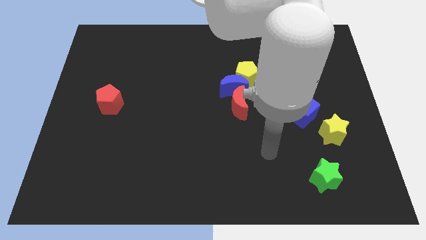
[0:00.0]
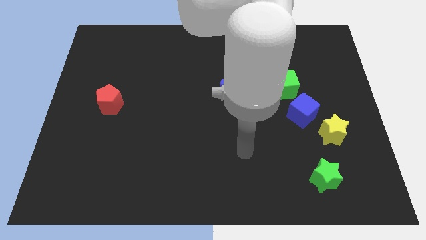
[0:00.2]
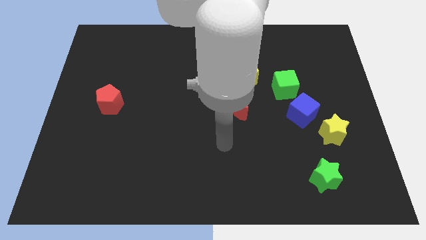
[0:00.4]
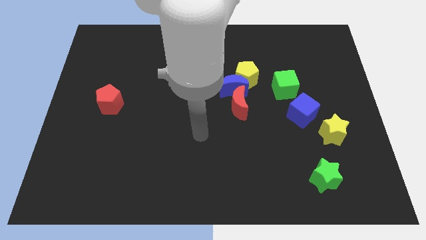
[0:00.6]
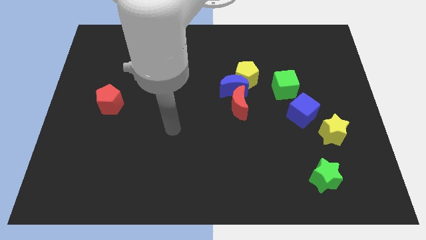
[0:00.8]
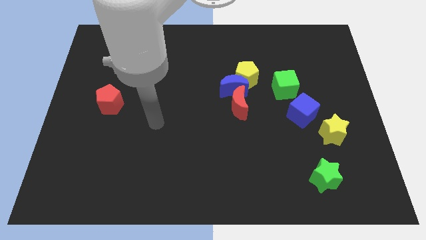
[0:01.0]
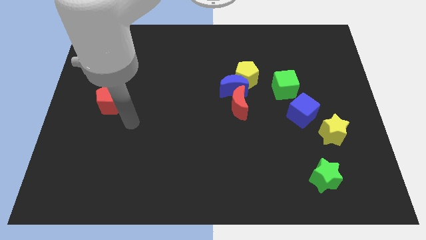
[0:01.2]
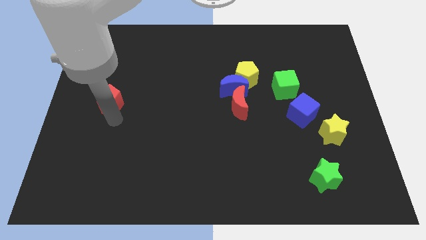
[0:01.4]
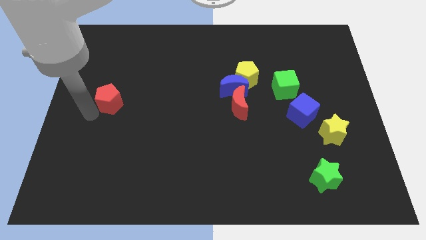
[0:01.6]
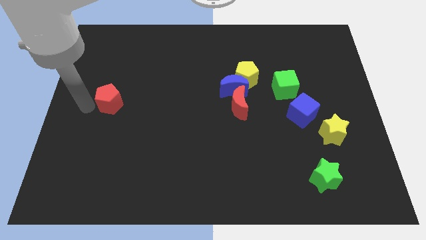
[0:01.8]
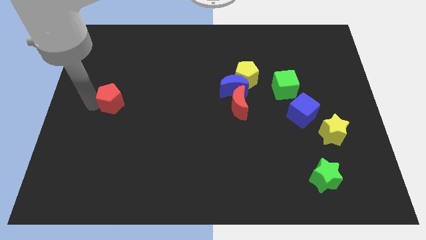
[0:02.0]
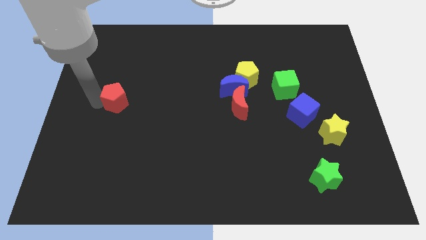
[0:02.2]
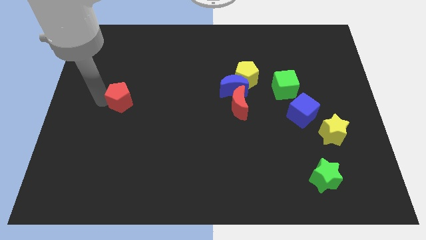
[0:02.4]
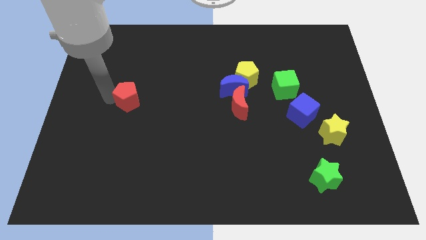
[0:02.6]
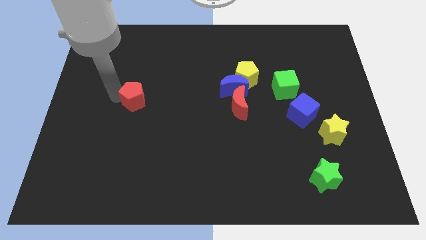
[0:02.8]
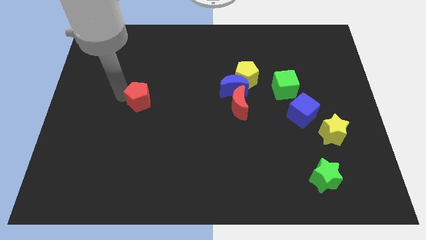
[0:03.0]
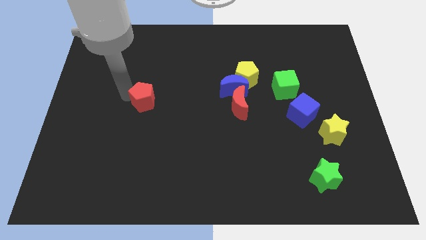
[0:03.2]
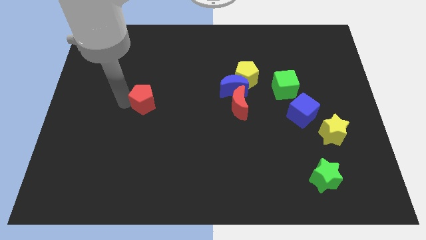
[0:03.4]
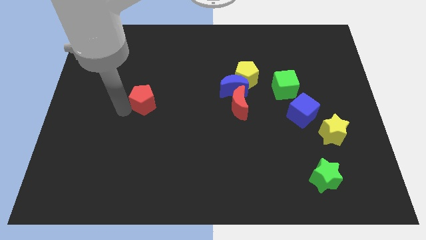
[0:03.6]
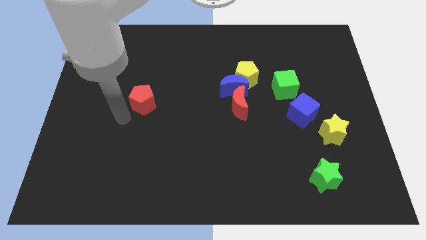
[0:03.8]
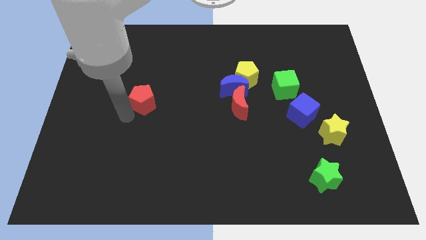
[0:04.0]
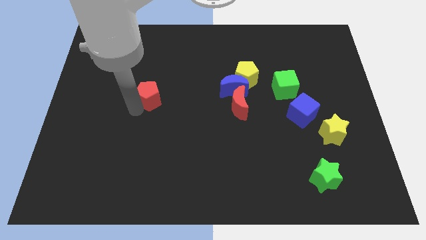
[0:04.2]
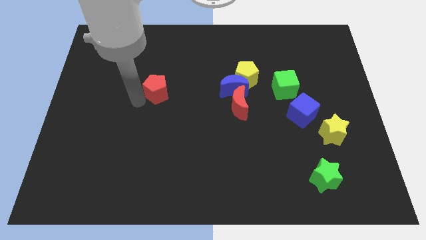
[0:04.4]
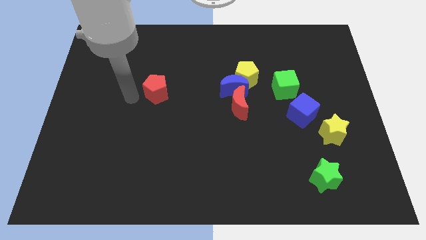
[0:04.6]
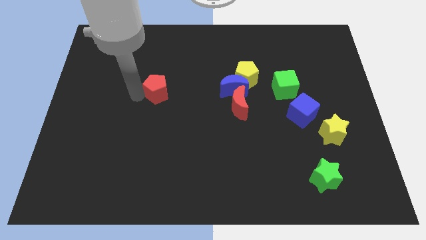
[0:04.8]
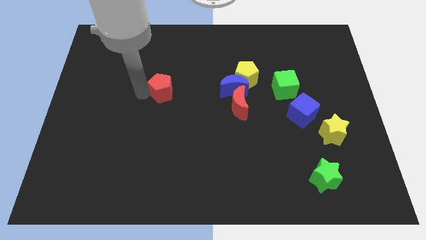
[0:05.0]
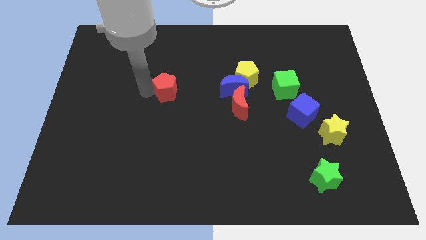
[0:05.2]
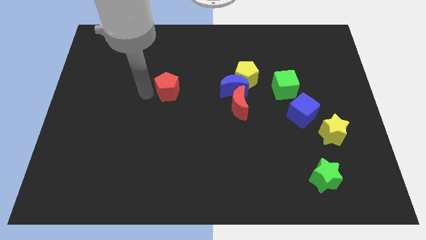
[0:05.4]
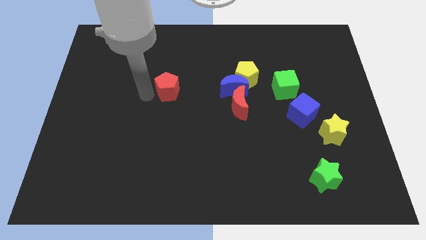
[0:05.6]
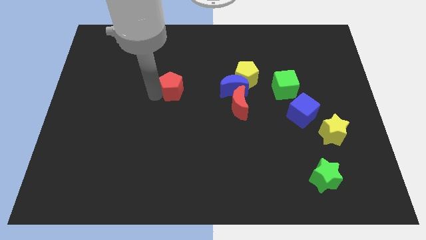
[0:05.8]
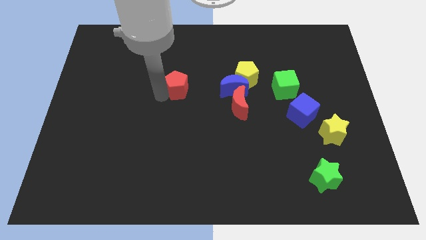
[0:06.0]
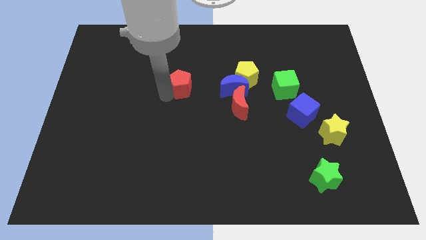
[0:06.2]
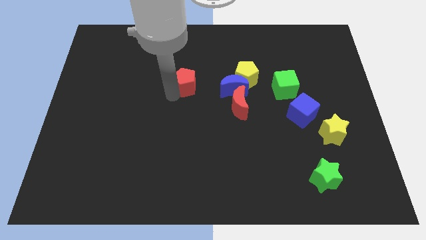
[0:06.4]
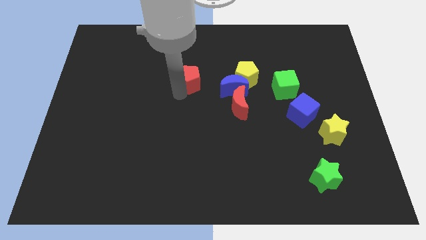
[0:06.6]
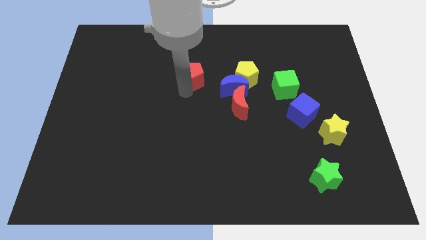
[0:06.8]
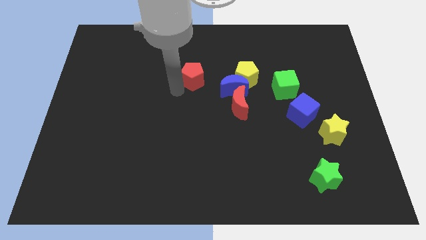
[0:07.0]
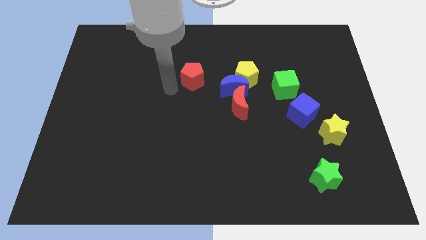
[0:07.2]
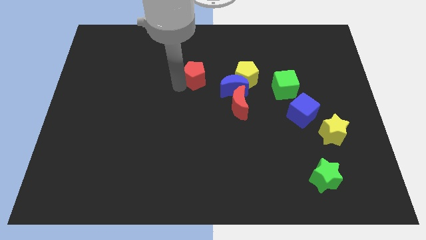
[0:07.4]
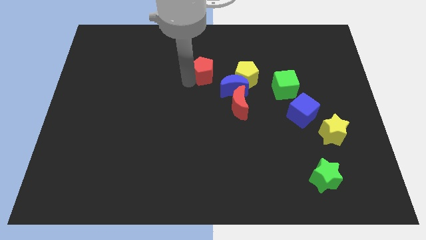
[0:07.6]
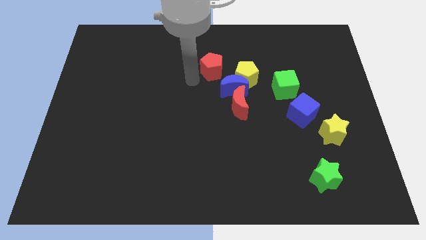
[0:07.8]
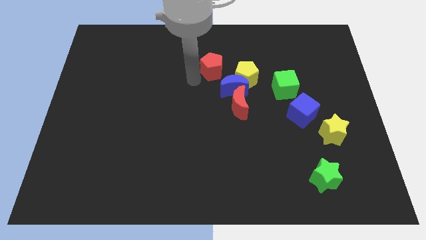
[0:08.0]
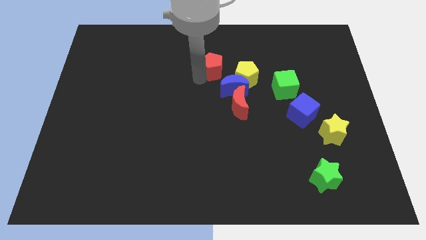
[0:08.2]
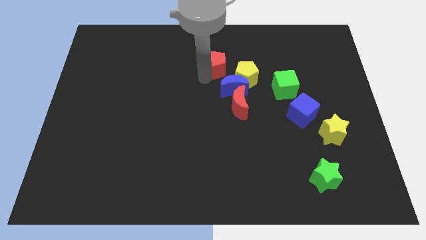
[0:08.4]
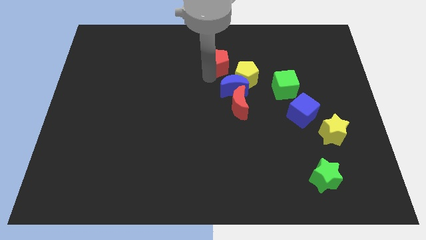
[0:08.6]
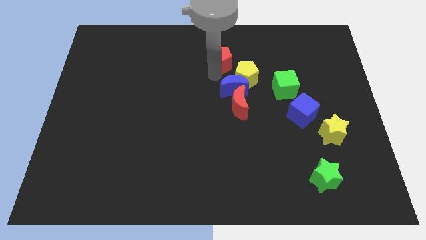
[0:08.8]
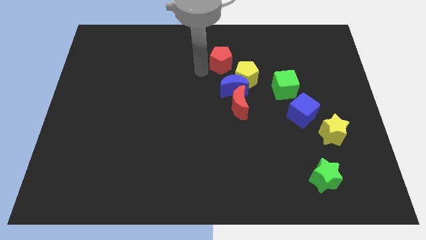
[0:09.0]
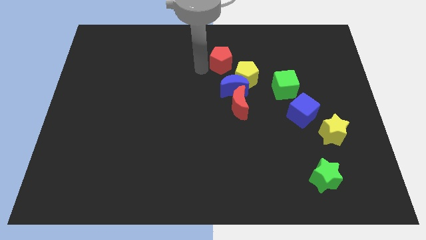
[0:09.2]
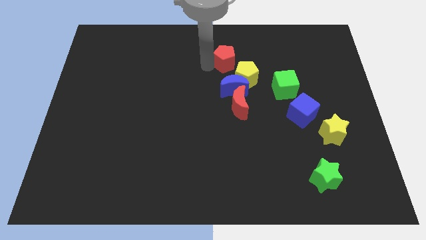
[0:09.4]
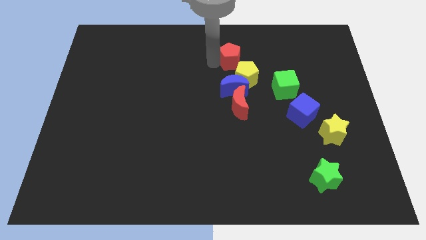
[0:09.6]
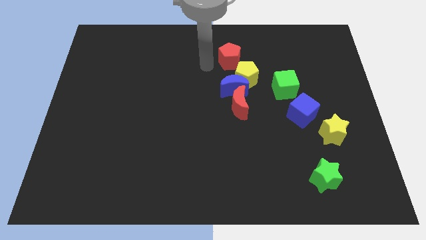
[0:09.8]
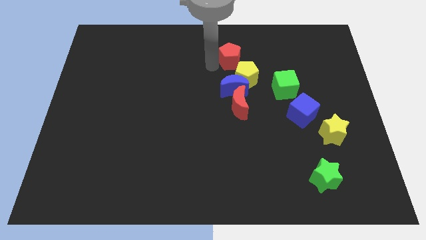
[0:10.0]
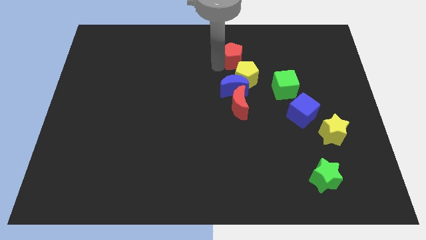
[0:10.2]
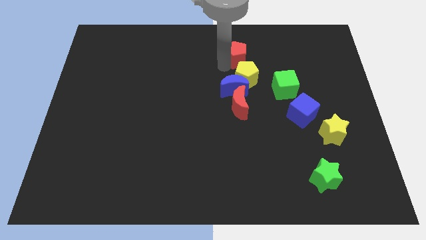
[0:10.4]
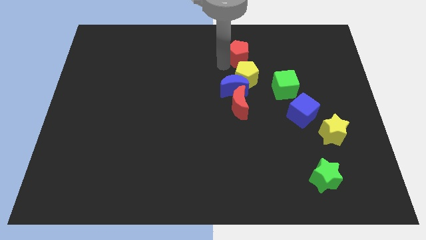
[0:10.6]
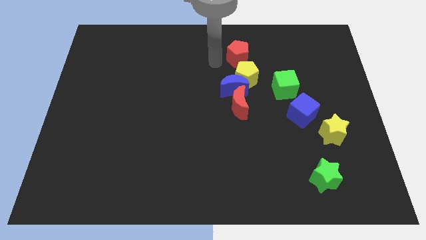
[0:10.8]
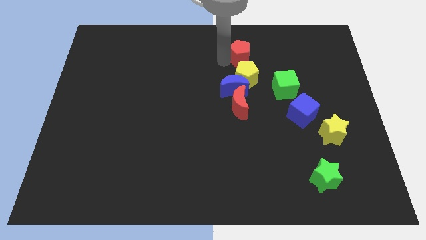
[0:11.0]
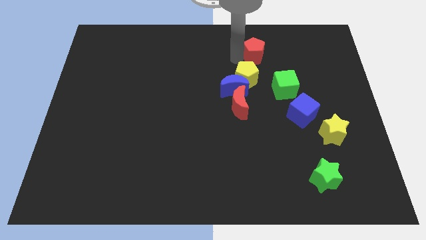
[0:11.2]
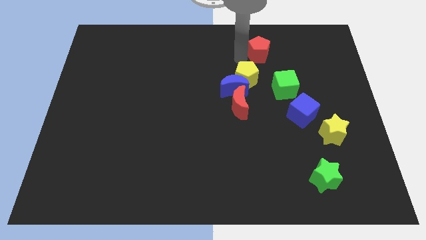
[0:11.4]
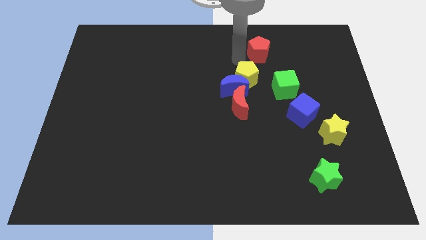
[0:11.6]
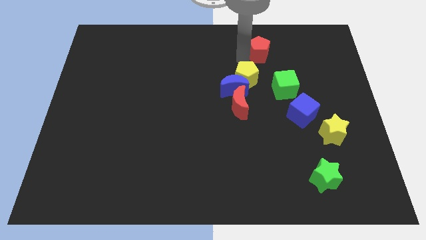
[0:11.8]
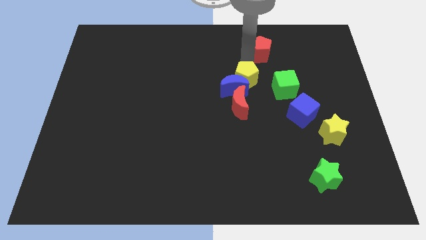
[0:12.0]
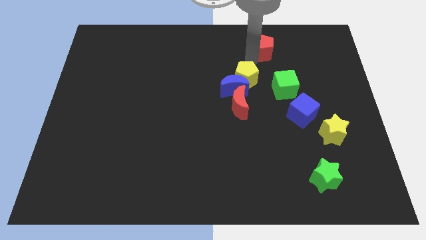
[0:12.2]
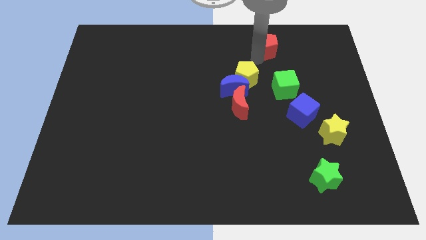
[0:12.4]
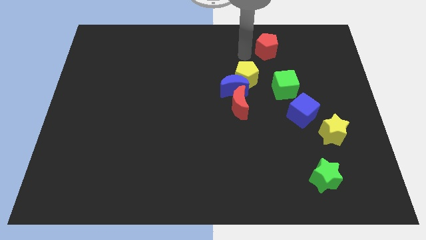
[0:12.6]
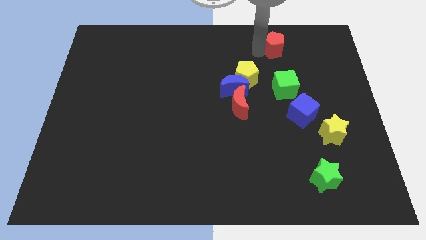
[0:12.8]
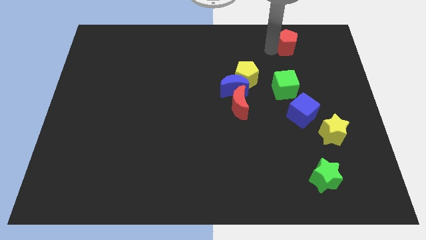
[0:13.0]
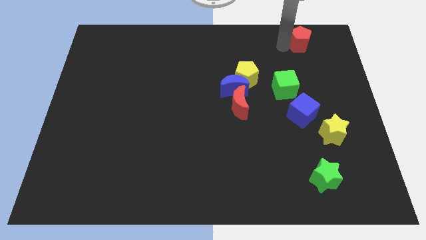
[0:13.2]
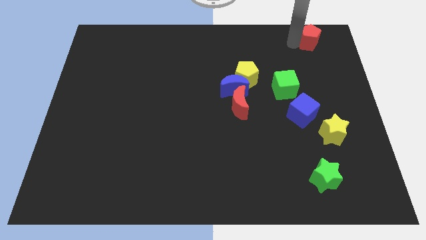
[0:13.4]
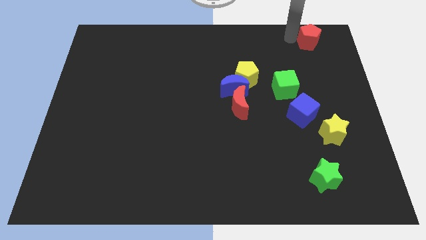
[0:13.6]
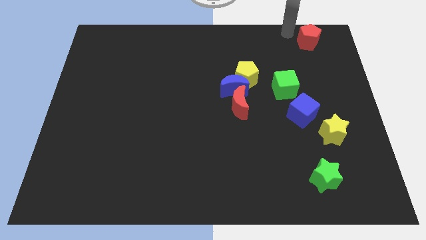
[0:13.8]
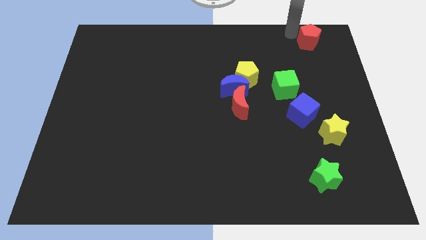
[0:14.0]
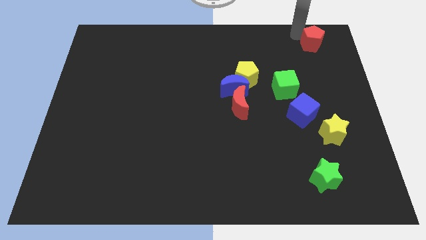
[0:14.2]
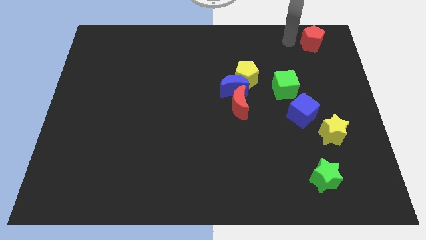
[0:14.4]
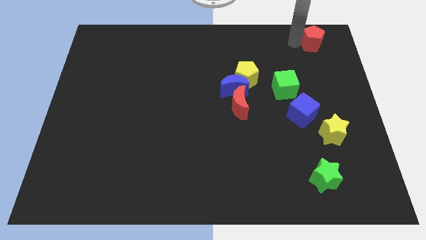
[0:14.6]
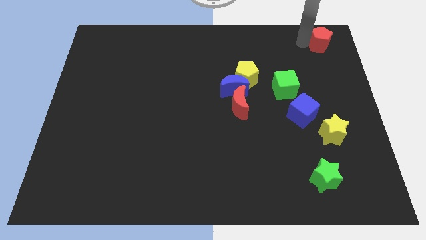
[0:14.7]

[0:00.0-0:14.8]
push the red pentagon to the top right corner
